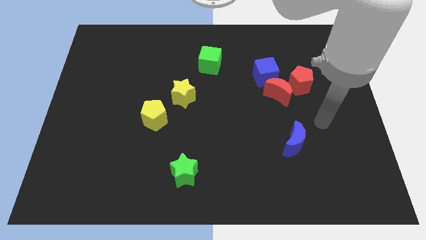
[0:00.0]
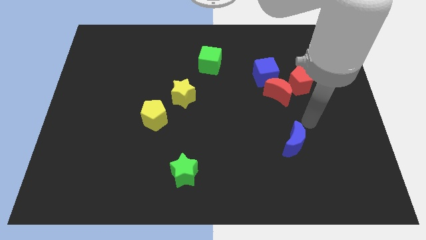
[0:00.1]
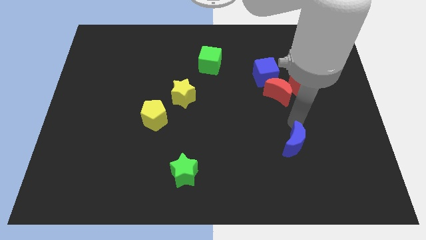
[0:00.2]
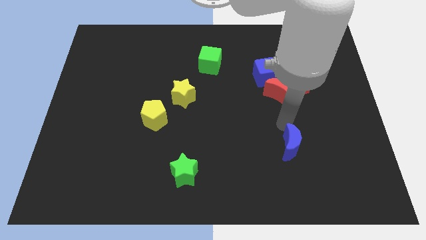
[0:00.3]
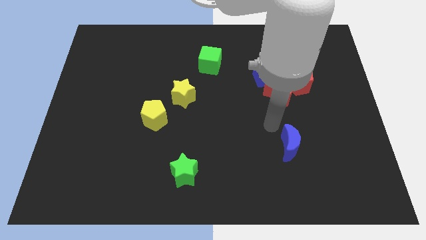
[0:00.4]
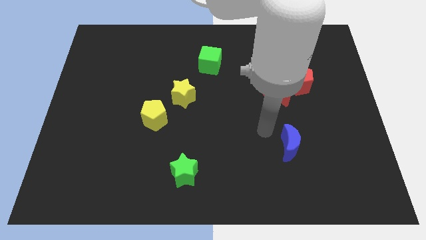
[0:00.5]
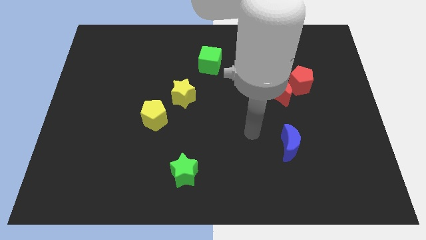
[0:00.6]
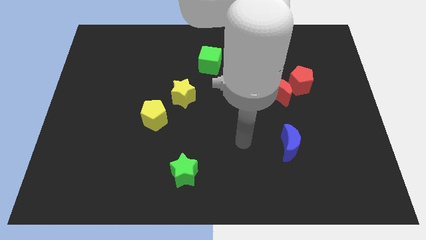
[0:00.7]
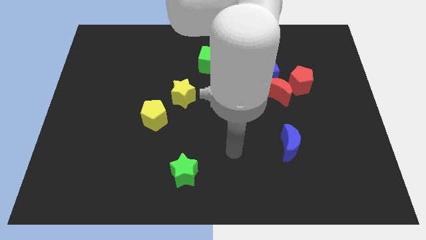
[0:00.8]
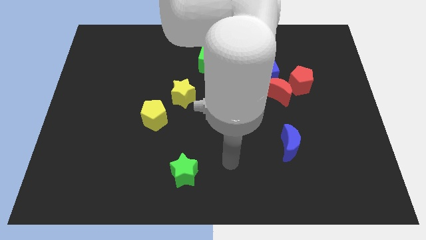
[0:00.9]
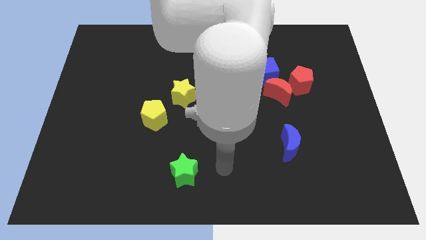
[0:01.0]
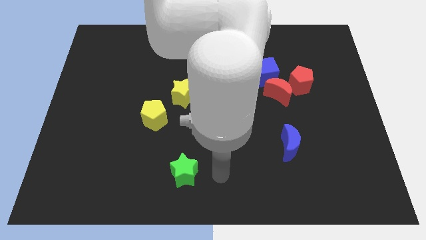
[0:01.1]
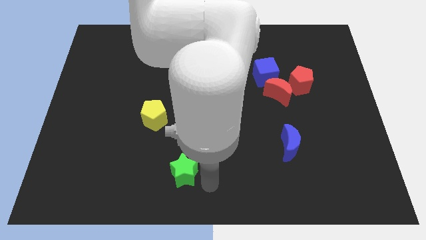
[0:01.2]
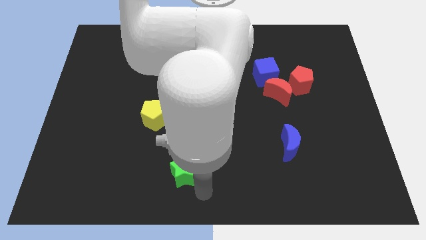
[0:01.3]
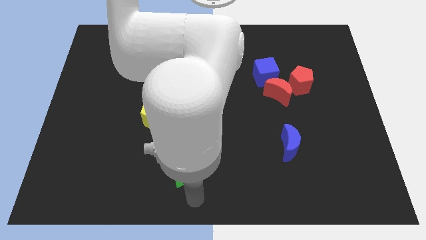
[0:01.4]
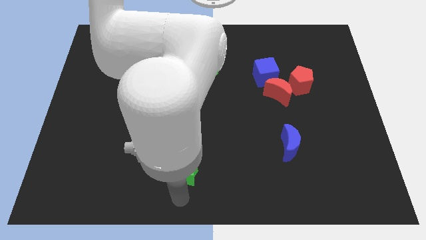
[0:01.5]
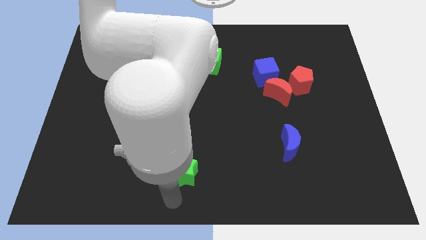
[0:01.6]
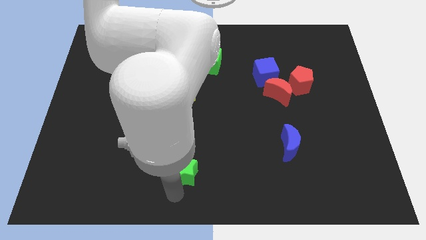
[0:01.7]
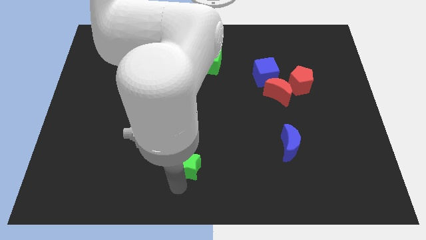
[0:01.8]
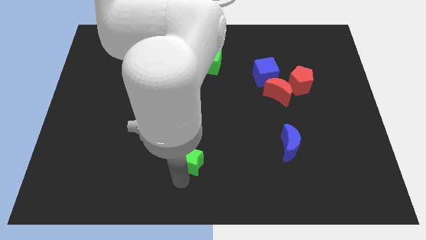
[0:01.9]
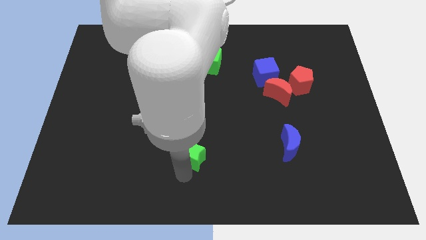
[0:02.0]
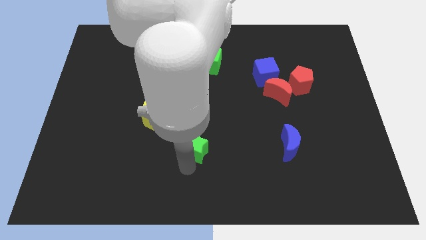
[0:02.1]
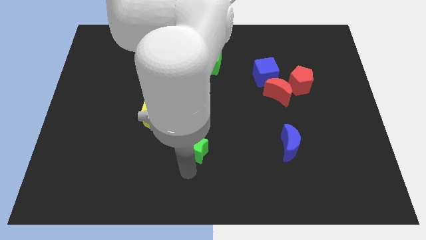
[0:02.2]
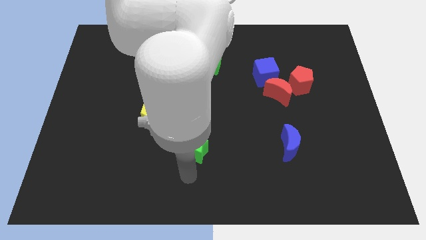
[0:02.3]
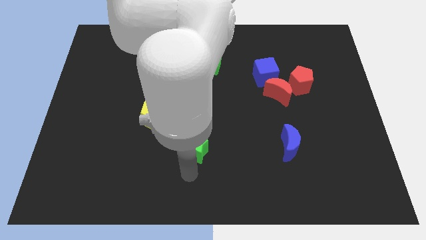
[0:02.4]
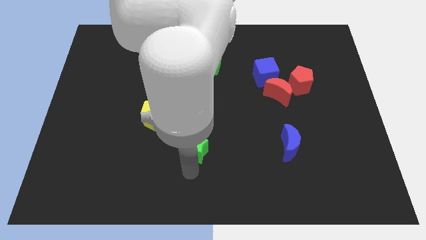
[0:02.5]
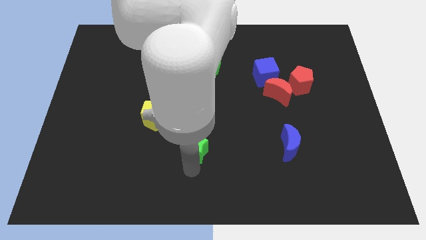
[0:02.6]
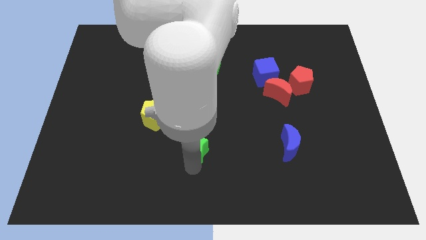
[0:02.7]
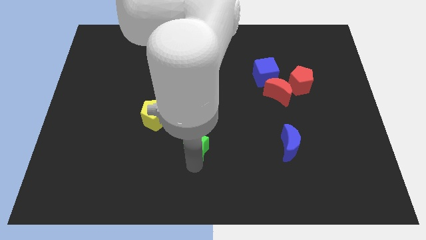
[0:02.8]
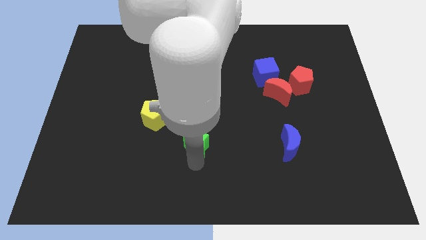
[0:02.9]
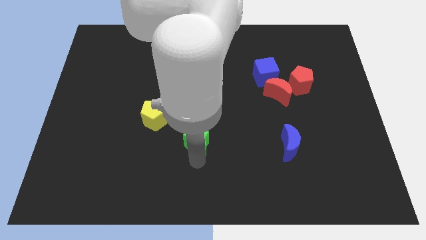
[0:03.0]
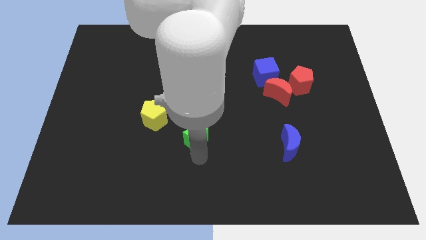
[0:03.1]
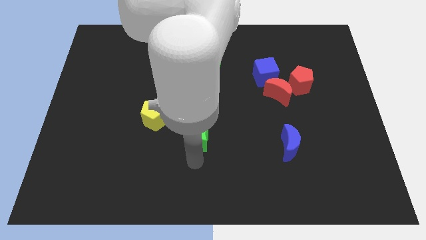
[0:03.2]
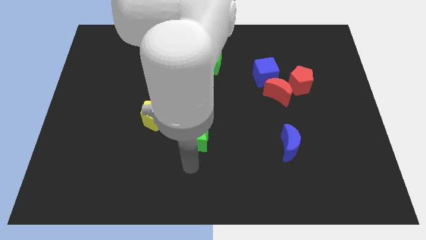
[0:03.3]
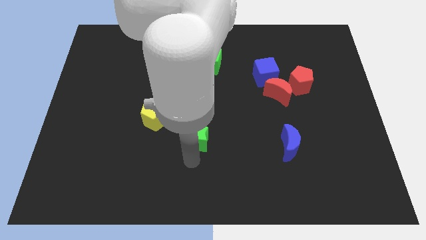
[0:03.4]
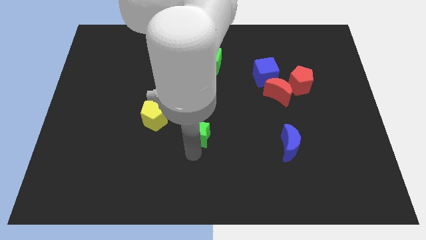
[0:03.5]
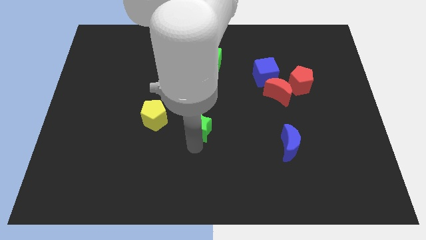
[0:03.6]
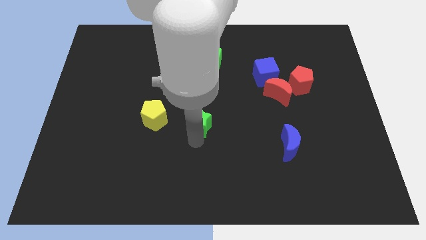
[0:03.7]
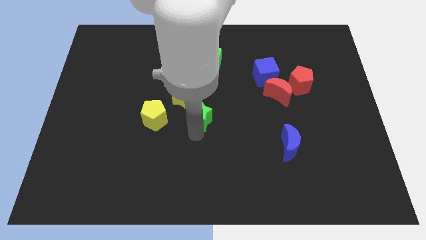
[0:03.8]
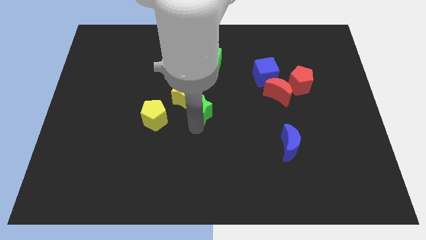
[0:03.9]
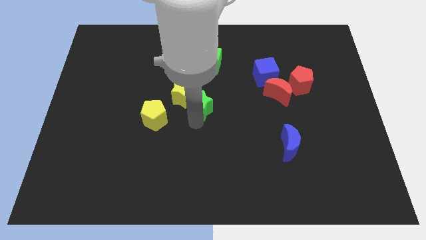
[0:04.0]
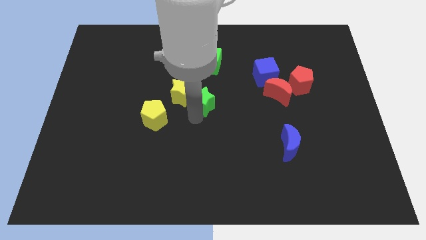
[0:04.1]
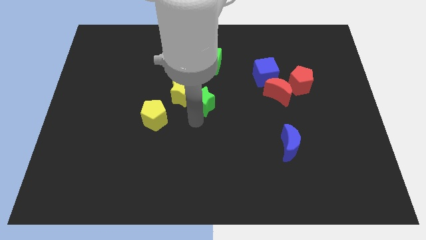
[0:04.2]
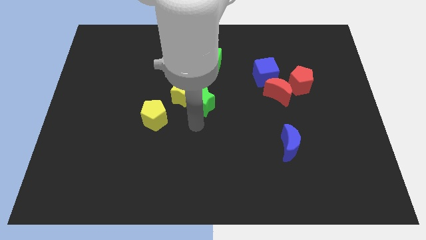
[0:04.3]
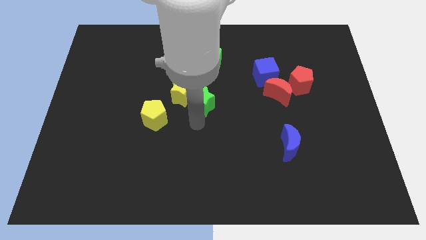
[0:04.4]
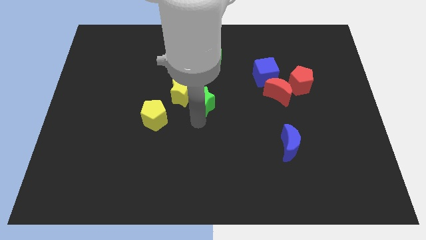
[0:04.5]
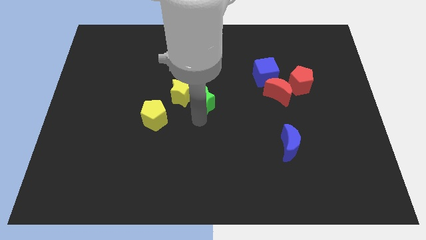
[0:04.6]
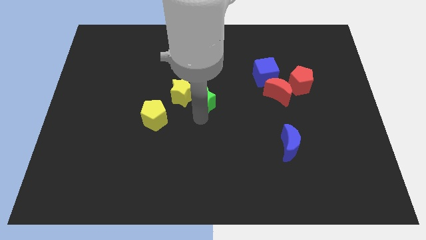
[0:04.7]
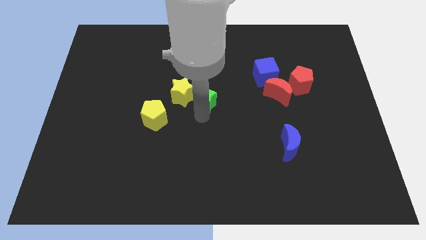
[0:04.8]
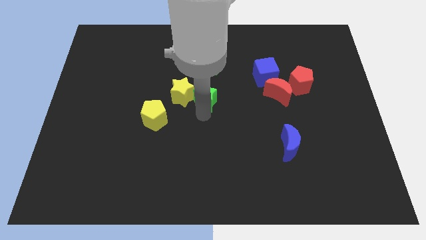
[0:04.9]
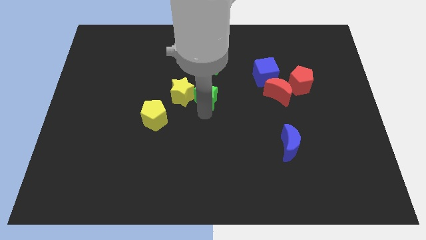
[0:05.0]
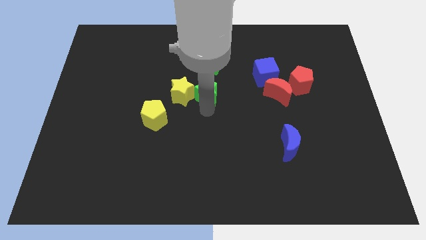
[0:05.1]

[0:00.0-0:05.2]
push the green star up

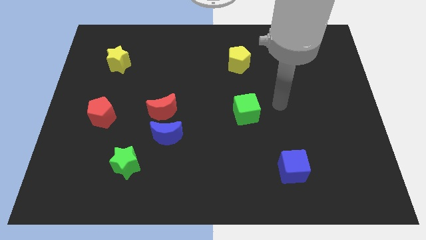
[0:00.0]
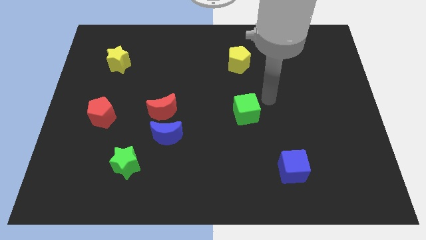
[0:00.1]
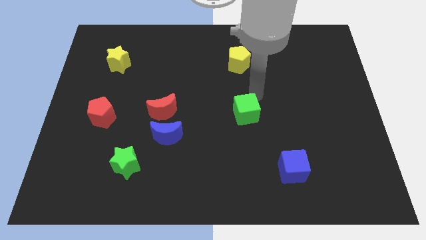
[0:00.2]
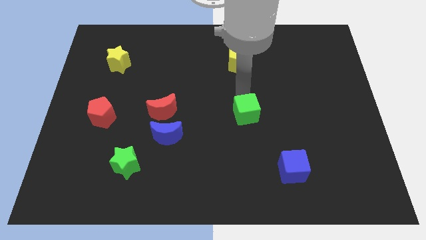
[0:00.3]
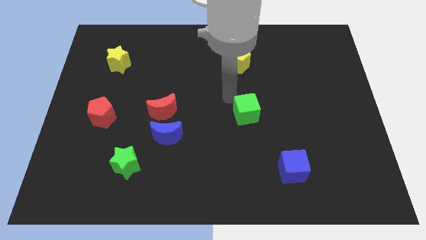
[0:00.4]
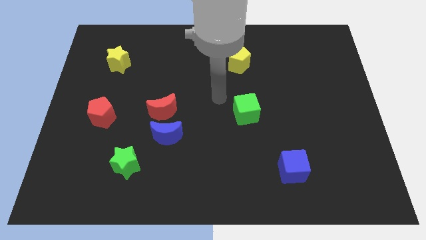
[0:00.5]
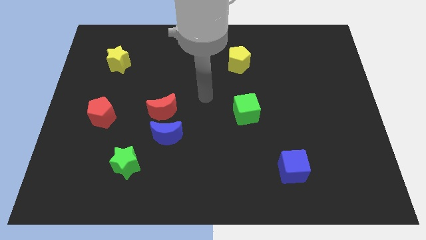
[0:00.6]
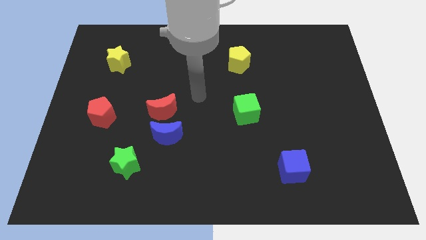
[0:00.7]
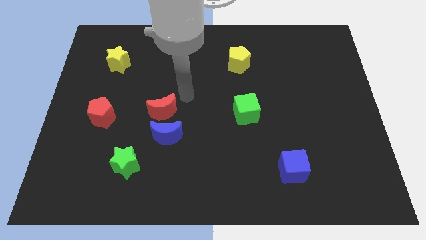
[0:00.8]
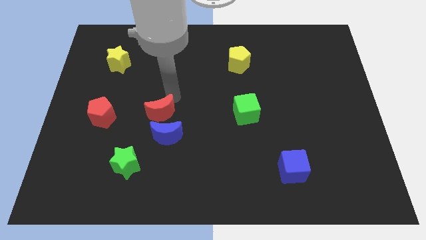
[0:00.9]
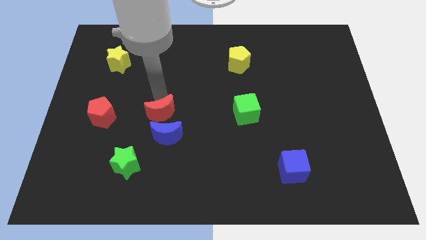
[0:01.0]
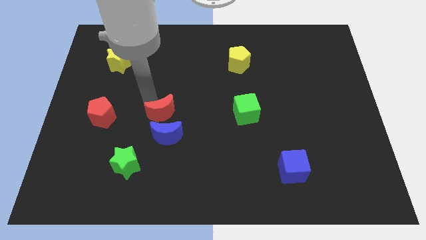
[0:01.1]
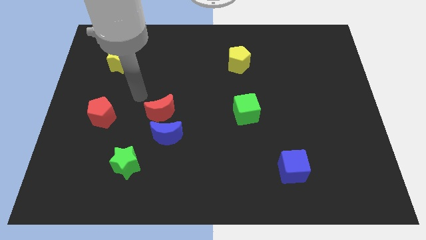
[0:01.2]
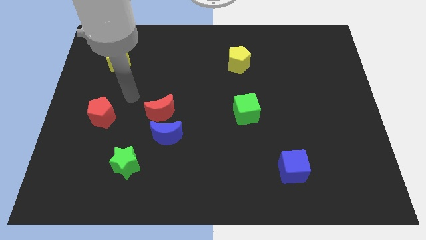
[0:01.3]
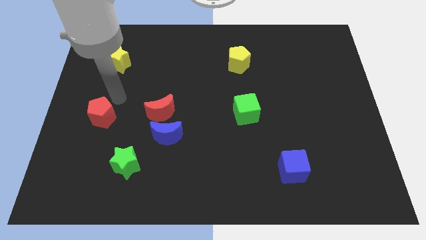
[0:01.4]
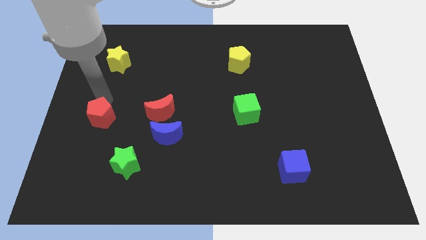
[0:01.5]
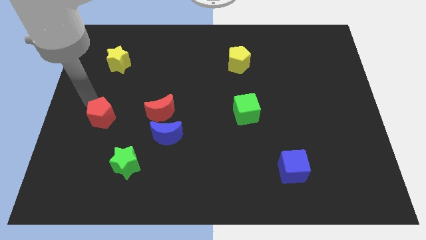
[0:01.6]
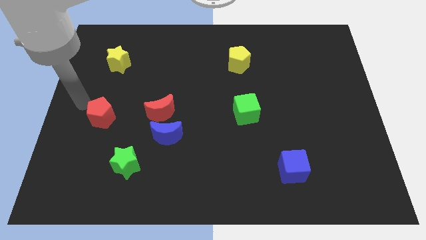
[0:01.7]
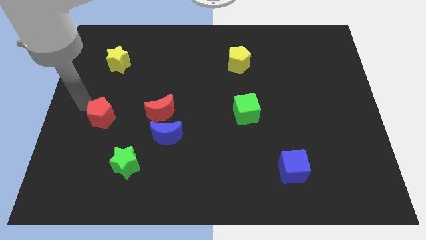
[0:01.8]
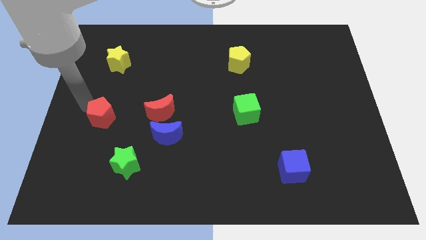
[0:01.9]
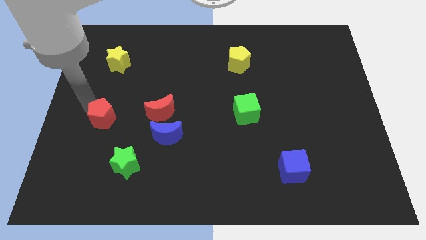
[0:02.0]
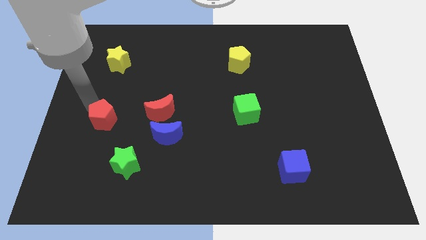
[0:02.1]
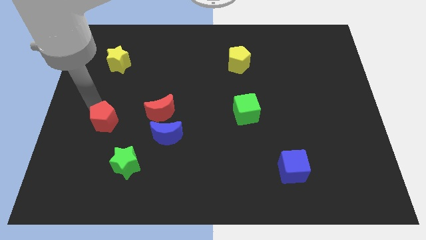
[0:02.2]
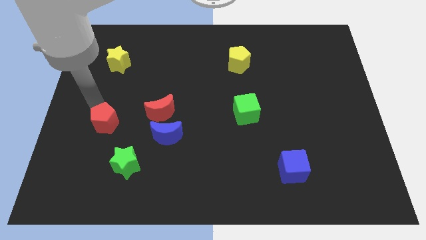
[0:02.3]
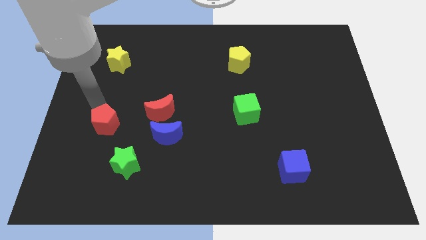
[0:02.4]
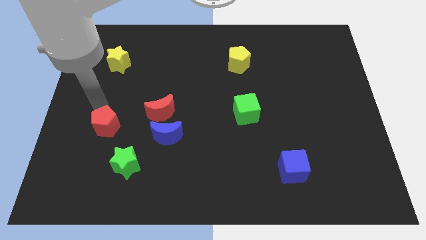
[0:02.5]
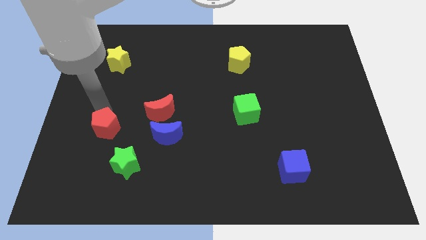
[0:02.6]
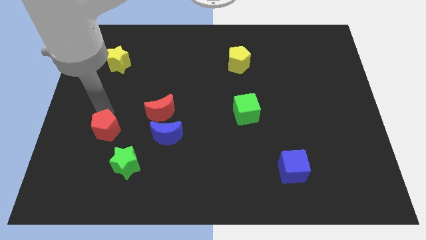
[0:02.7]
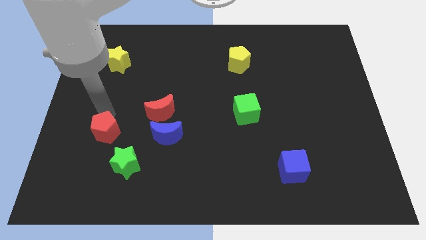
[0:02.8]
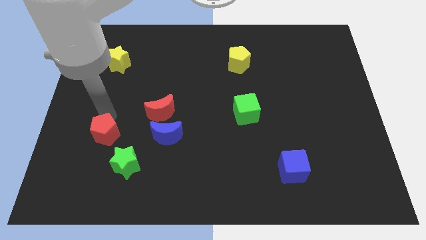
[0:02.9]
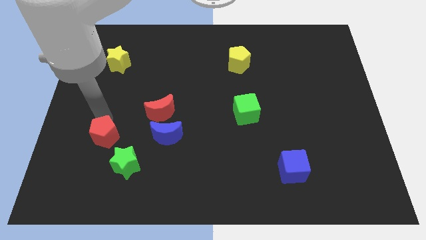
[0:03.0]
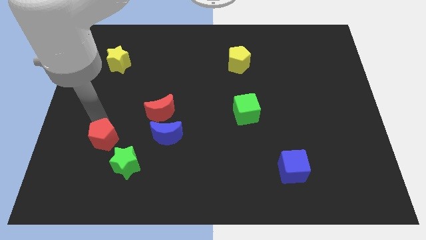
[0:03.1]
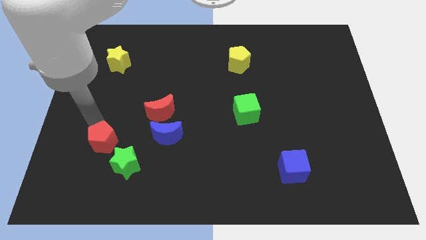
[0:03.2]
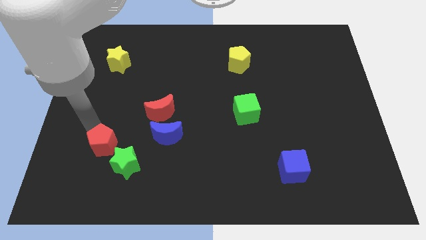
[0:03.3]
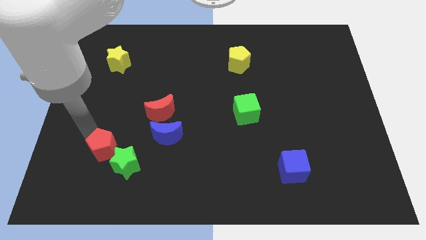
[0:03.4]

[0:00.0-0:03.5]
move the red pentagon down and right a little bit
